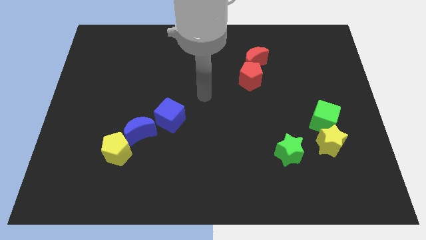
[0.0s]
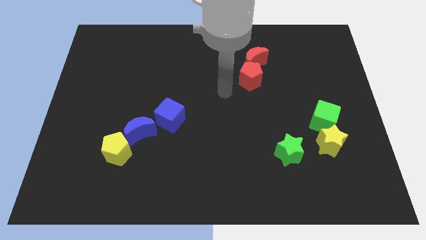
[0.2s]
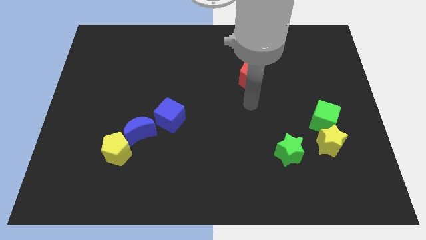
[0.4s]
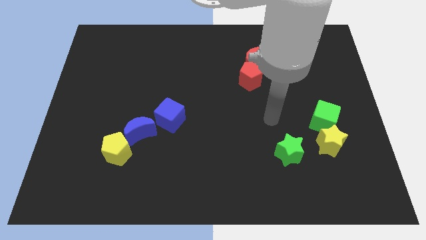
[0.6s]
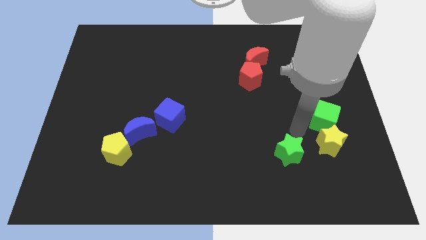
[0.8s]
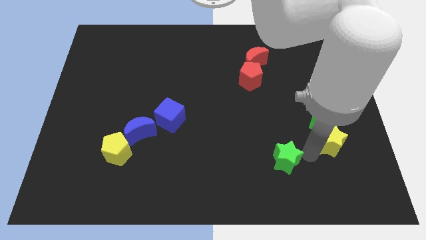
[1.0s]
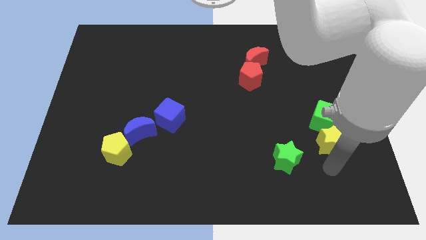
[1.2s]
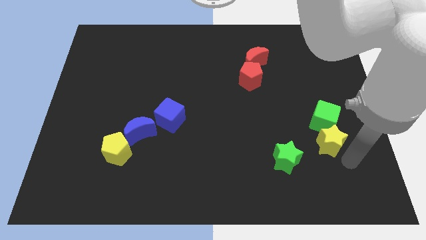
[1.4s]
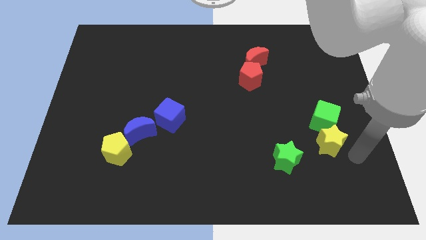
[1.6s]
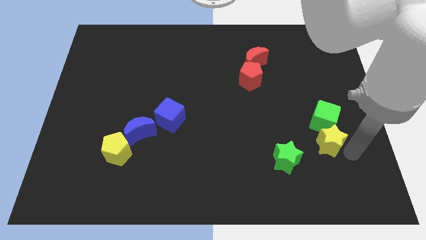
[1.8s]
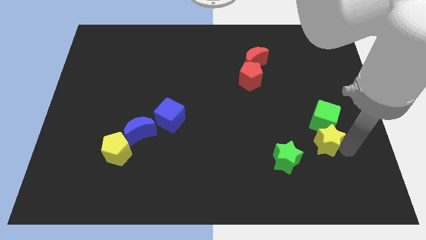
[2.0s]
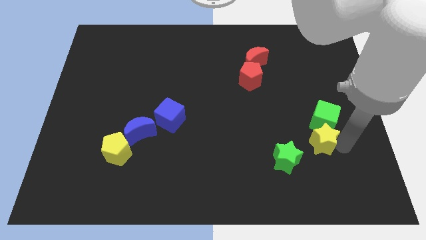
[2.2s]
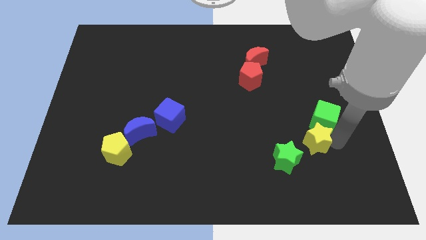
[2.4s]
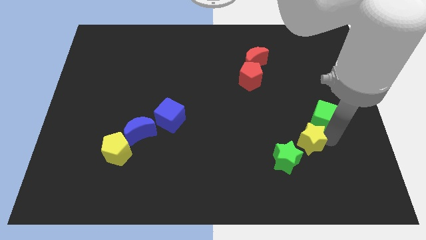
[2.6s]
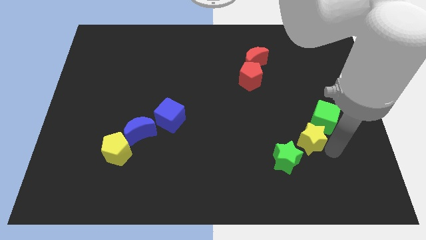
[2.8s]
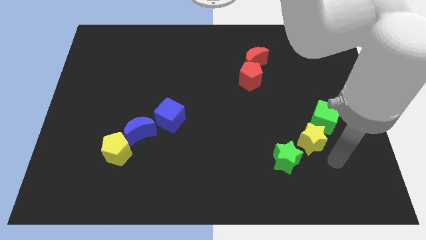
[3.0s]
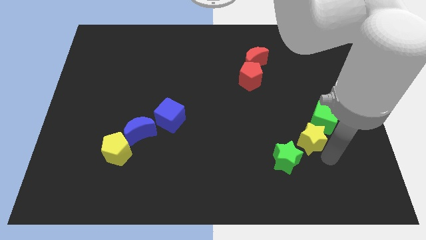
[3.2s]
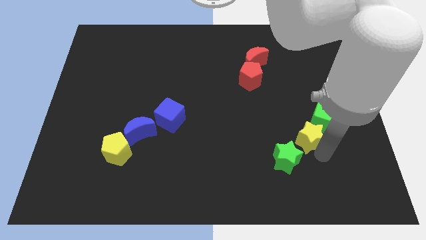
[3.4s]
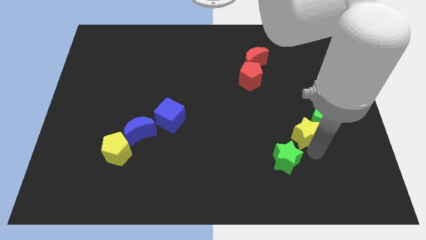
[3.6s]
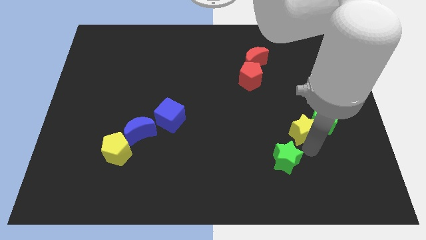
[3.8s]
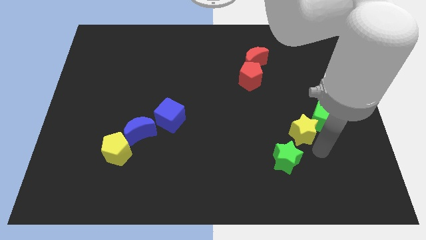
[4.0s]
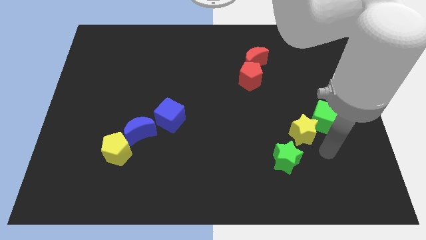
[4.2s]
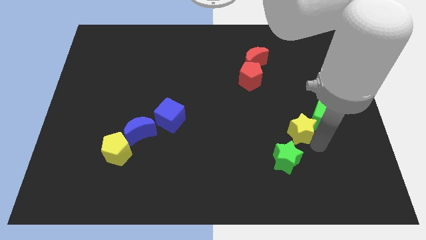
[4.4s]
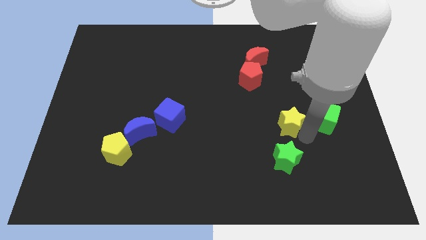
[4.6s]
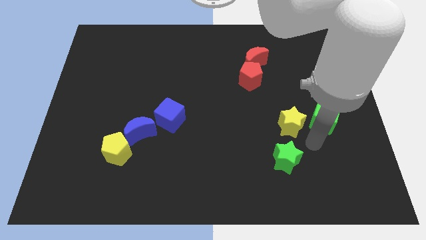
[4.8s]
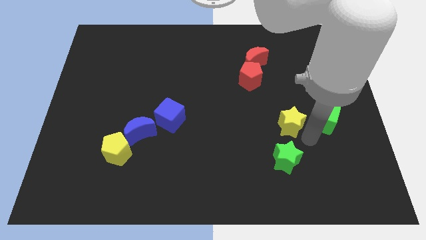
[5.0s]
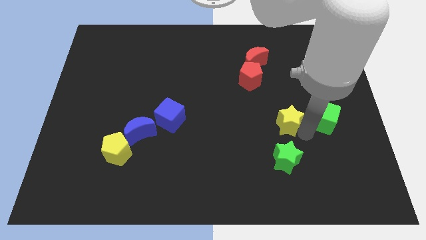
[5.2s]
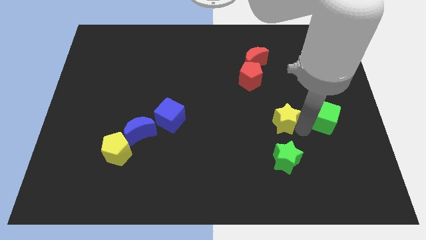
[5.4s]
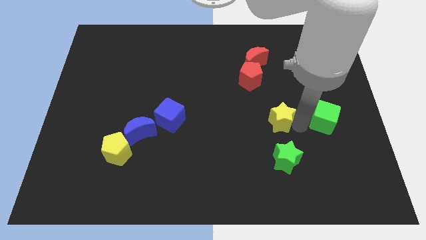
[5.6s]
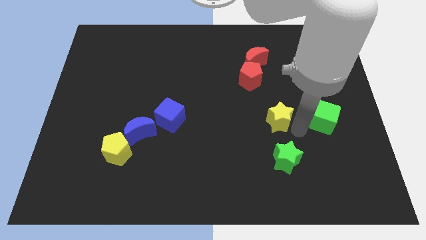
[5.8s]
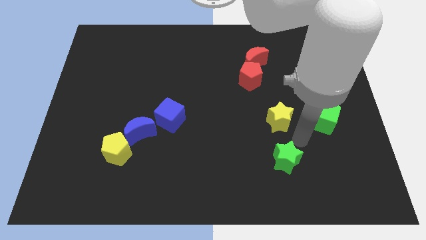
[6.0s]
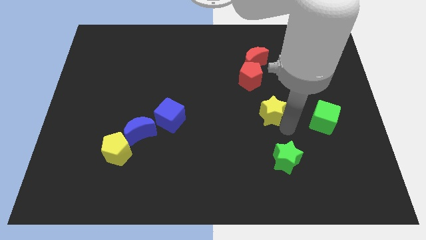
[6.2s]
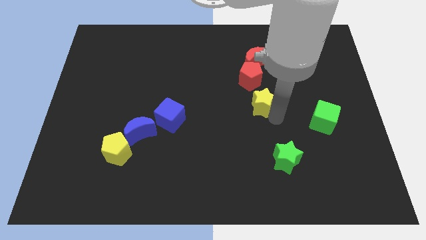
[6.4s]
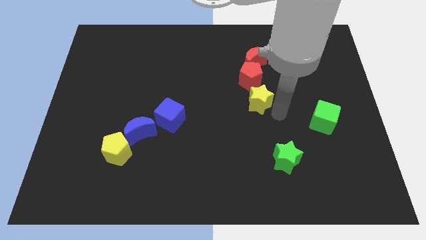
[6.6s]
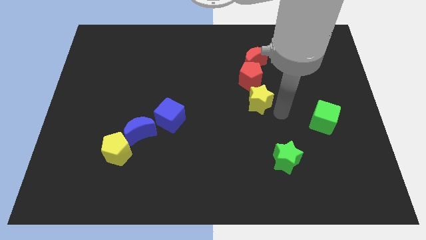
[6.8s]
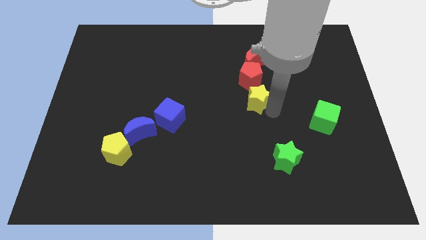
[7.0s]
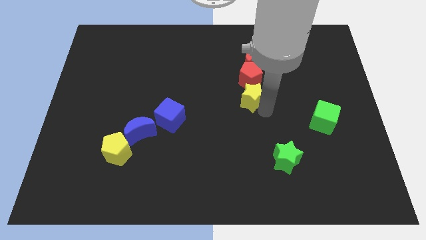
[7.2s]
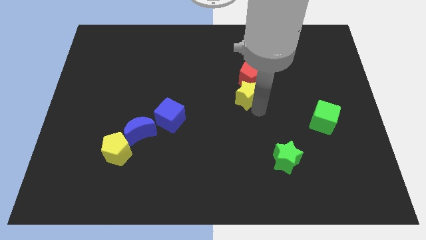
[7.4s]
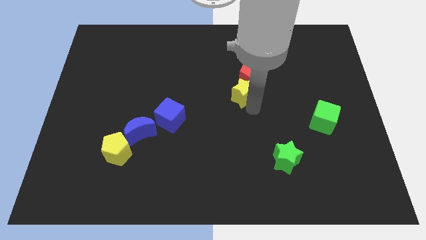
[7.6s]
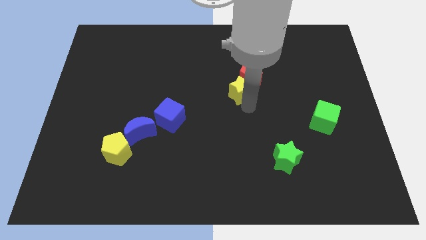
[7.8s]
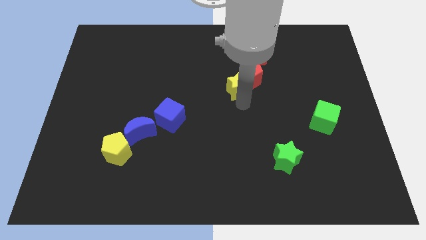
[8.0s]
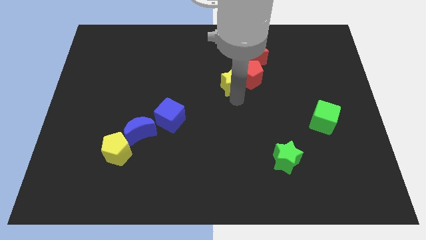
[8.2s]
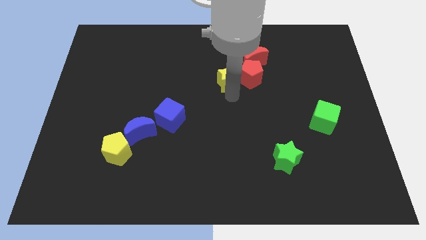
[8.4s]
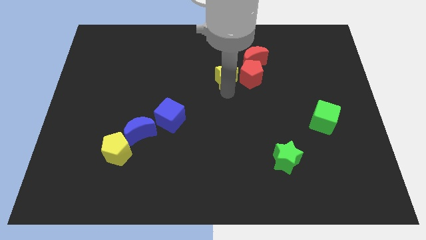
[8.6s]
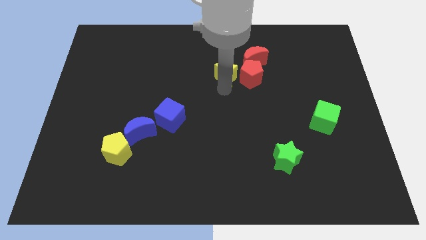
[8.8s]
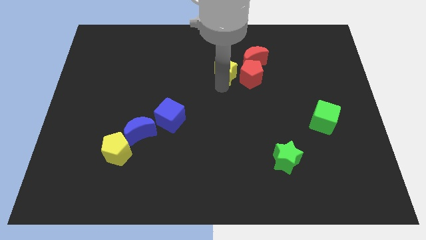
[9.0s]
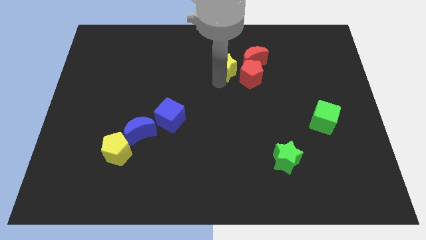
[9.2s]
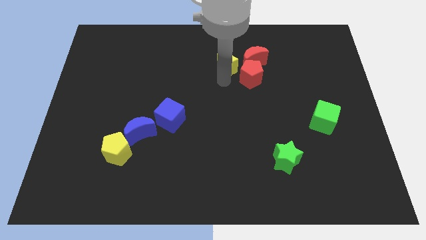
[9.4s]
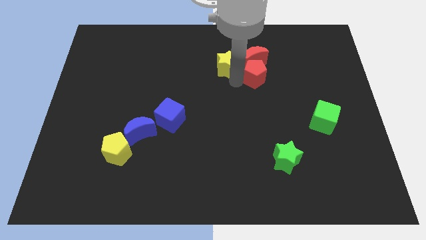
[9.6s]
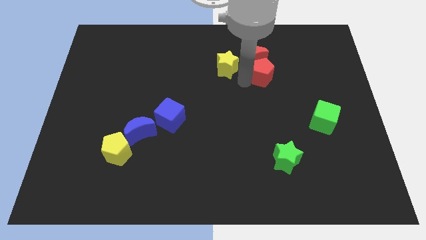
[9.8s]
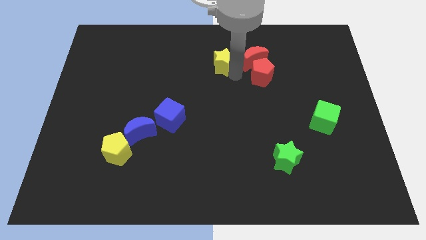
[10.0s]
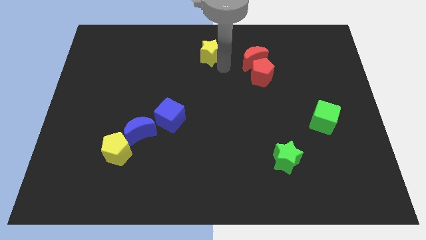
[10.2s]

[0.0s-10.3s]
push the yellow star to the towards your base
